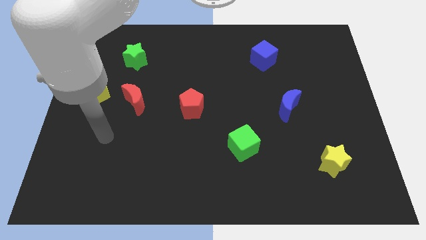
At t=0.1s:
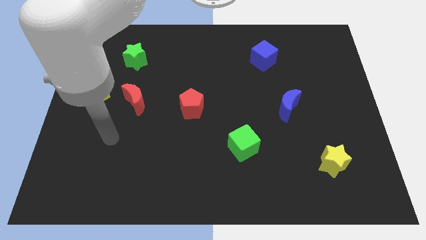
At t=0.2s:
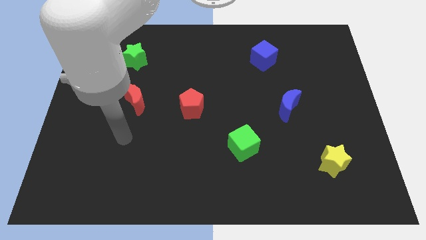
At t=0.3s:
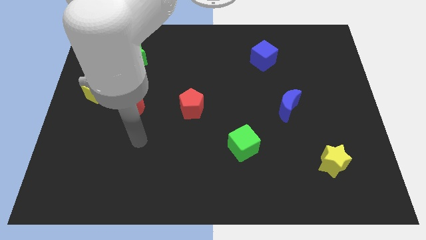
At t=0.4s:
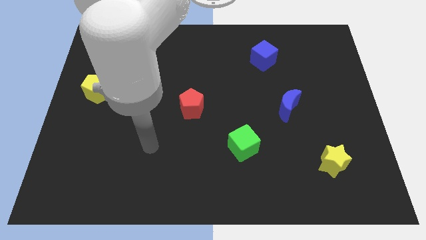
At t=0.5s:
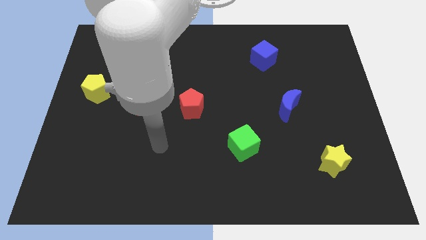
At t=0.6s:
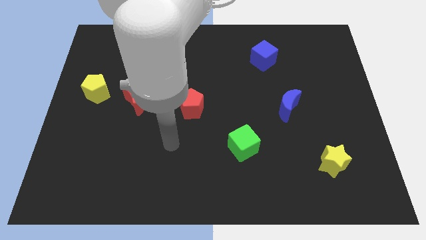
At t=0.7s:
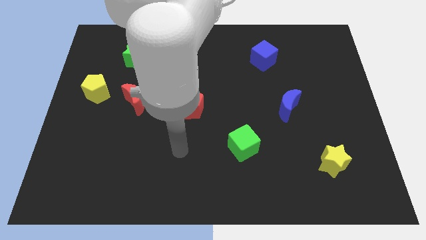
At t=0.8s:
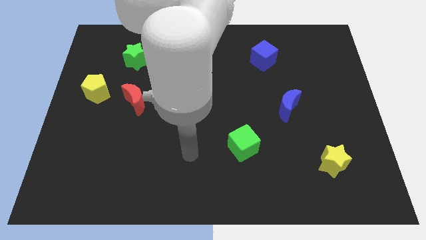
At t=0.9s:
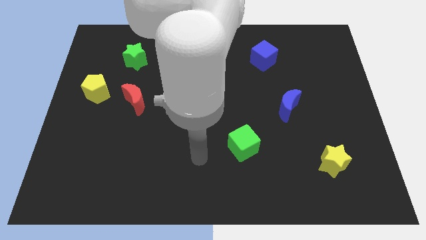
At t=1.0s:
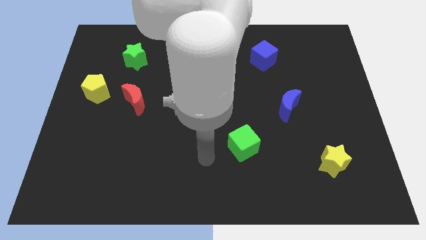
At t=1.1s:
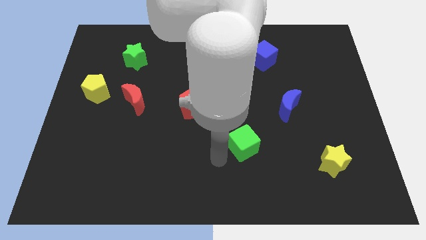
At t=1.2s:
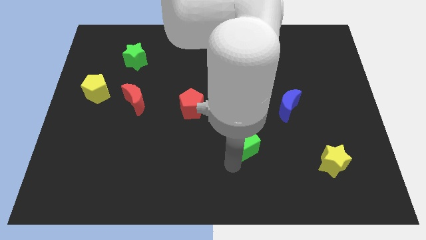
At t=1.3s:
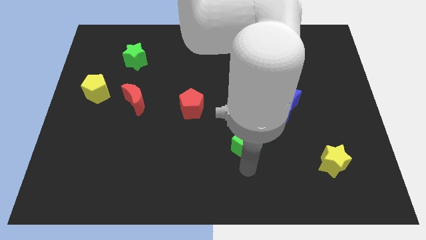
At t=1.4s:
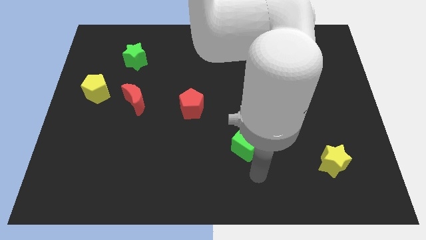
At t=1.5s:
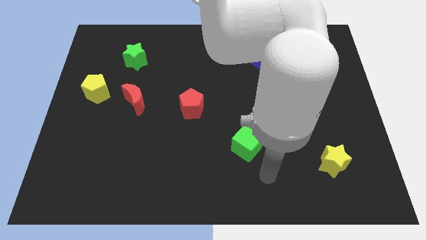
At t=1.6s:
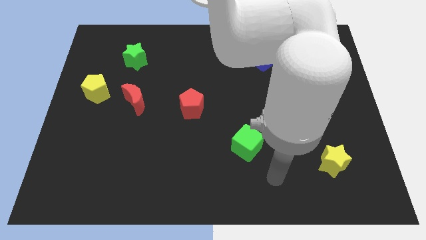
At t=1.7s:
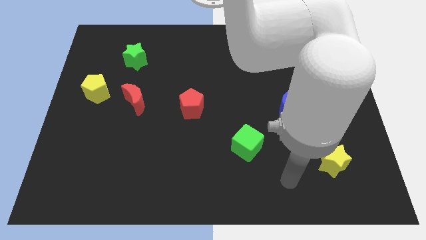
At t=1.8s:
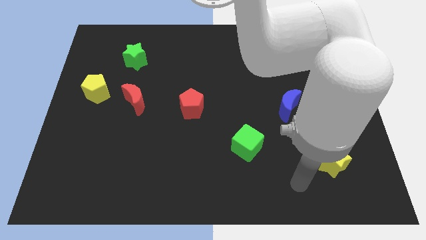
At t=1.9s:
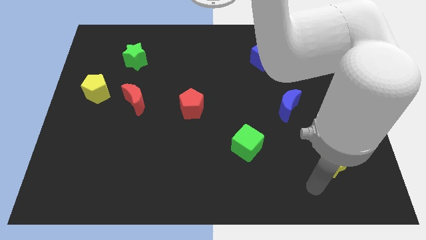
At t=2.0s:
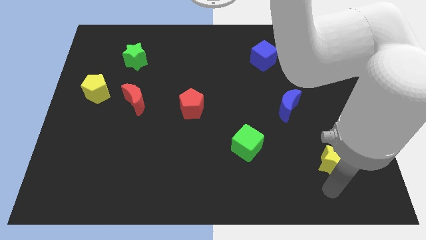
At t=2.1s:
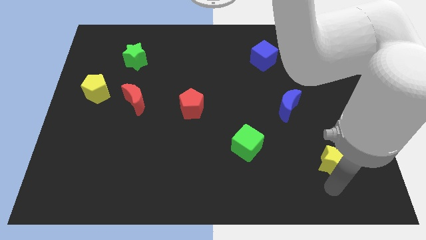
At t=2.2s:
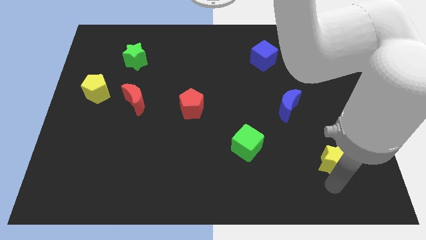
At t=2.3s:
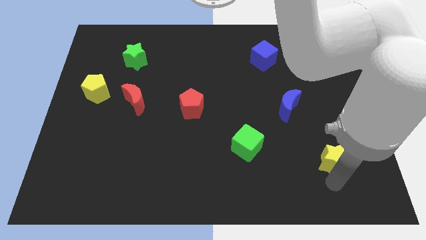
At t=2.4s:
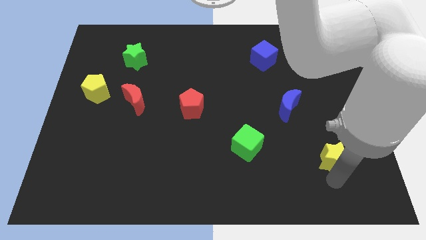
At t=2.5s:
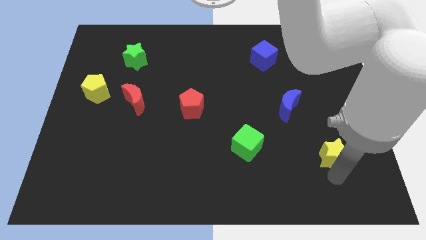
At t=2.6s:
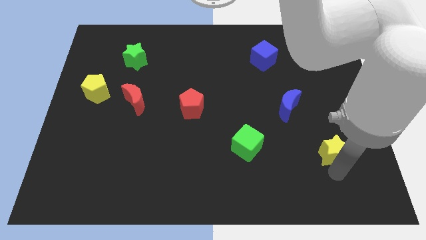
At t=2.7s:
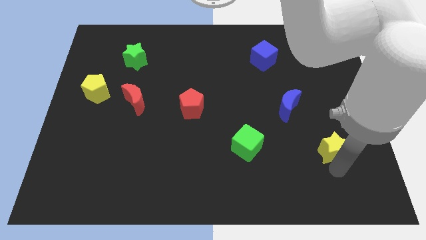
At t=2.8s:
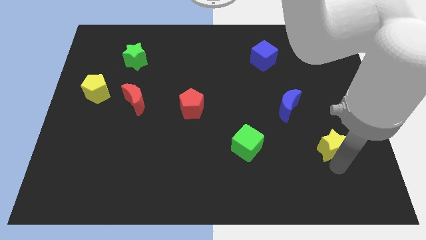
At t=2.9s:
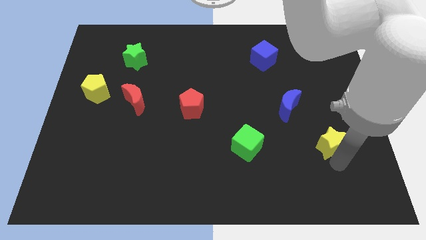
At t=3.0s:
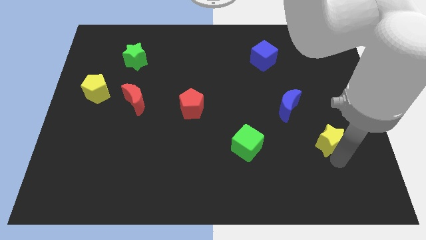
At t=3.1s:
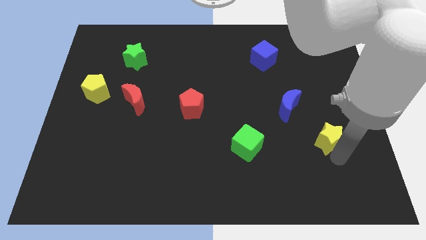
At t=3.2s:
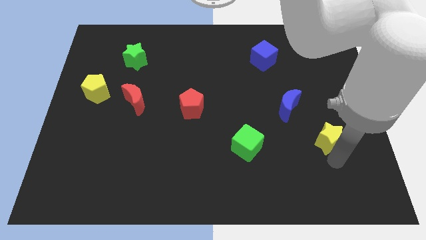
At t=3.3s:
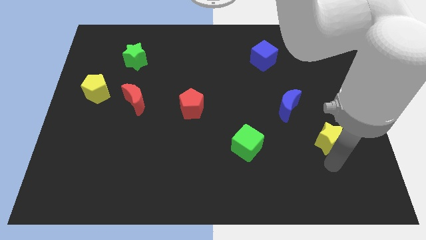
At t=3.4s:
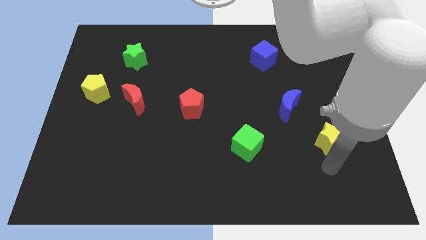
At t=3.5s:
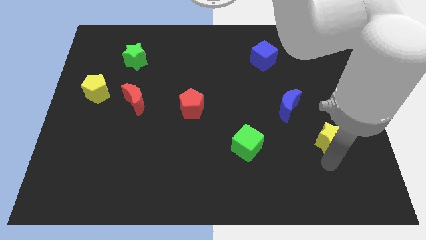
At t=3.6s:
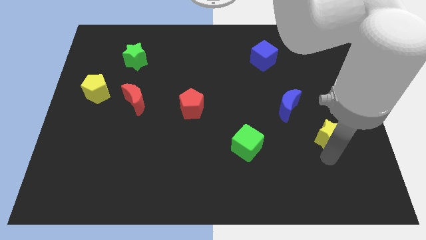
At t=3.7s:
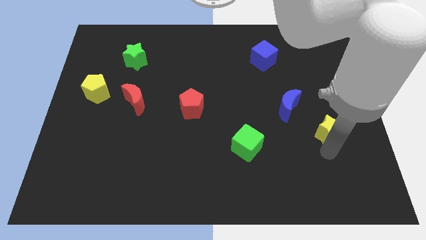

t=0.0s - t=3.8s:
slide the yellow star a bit upwards

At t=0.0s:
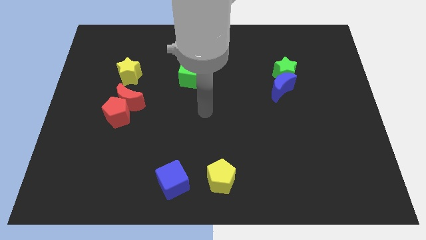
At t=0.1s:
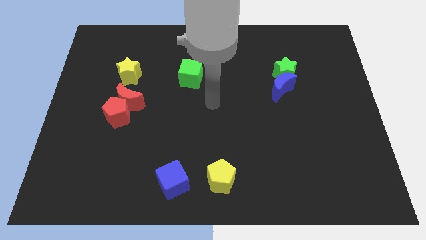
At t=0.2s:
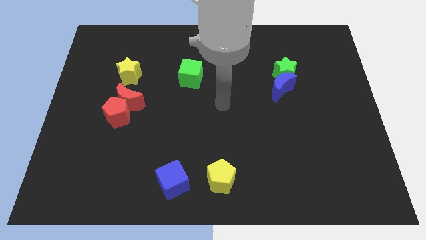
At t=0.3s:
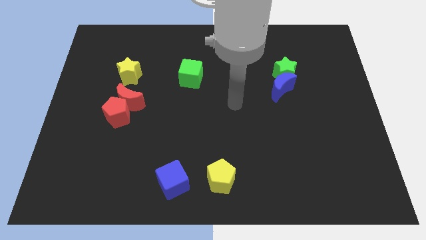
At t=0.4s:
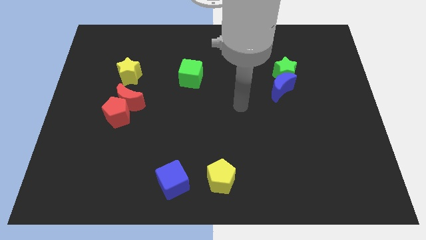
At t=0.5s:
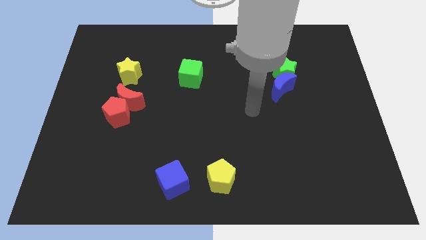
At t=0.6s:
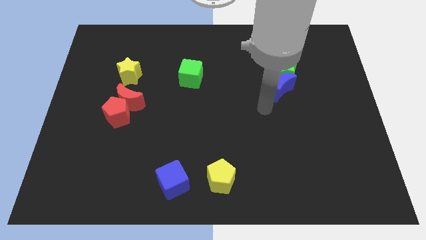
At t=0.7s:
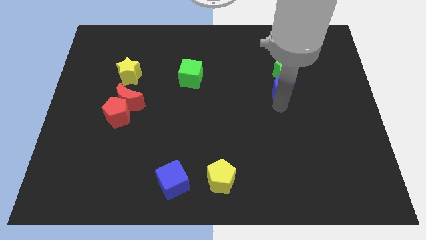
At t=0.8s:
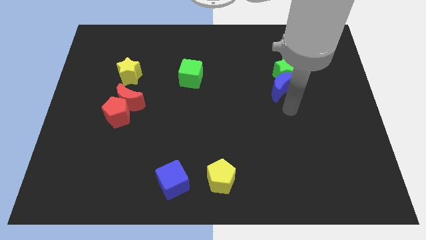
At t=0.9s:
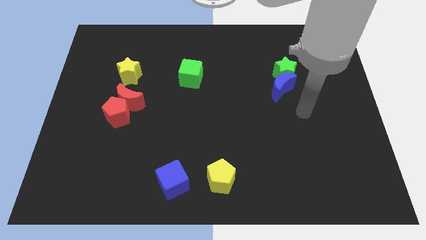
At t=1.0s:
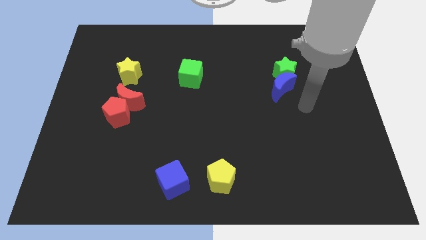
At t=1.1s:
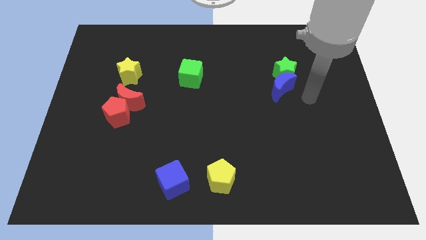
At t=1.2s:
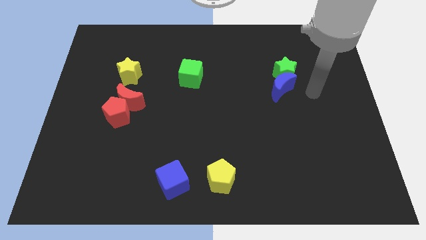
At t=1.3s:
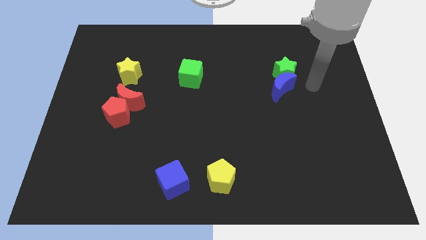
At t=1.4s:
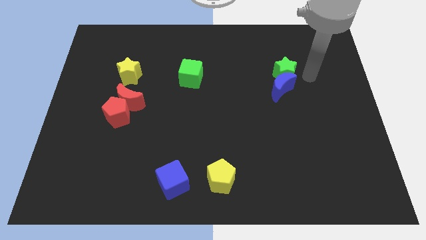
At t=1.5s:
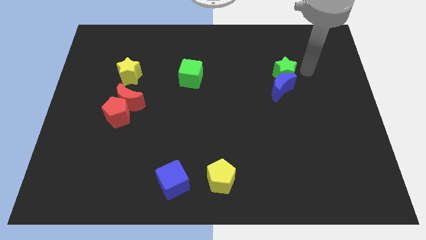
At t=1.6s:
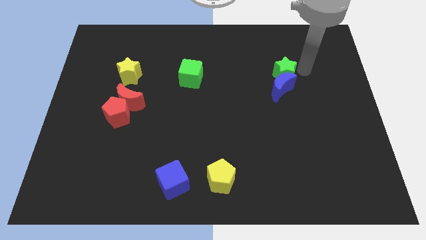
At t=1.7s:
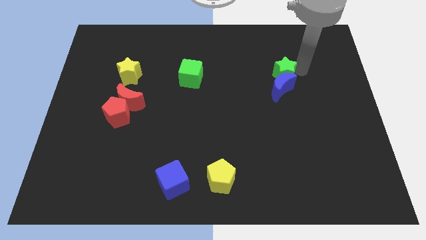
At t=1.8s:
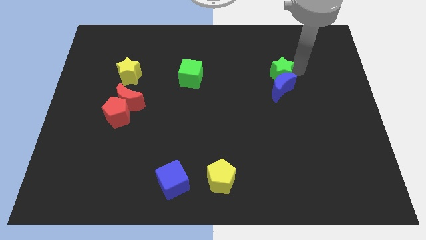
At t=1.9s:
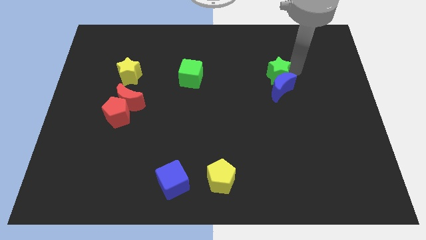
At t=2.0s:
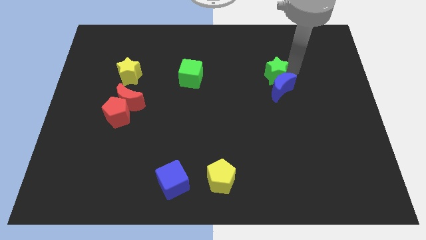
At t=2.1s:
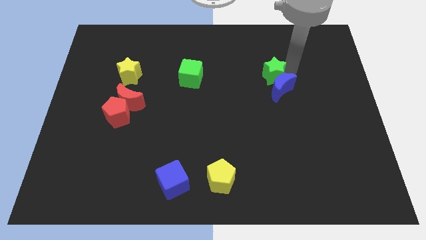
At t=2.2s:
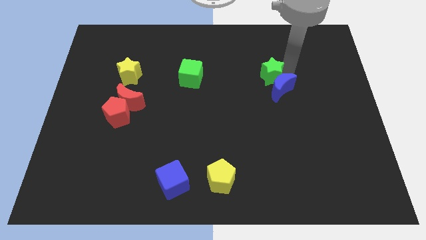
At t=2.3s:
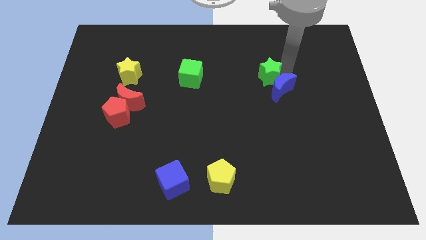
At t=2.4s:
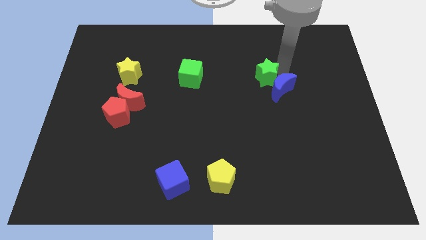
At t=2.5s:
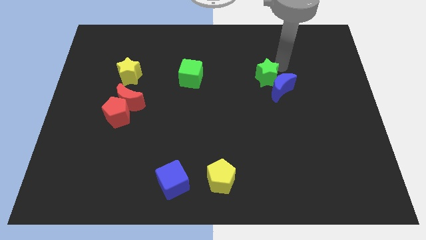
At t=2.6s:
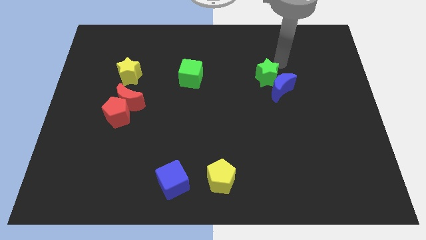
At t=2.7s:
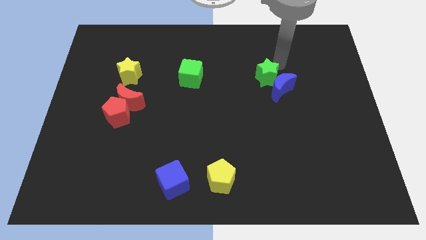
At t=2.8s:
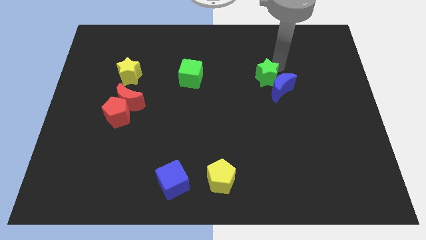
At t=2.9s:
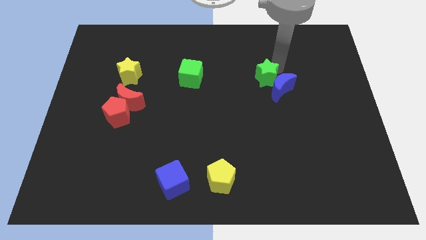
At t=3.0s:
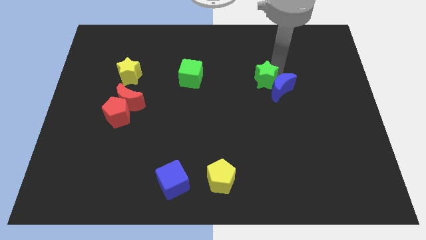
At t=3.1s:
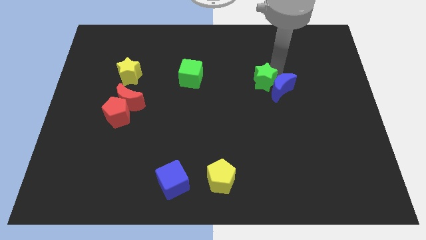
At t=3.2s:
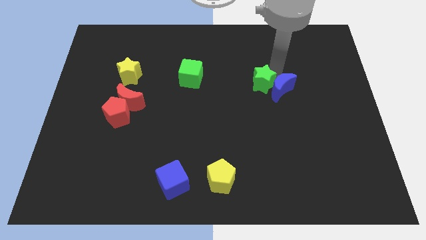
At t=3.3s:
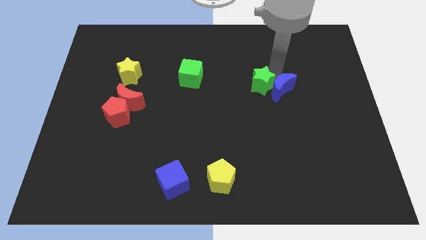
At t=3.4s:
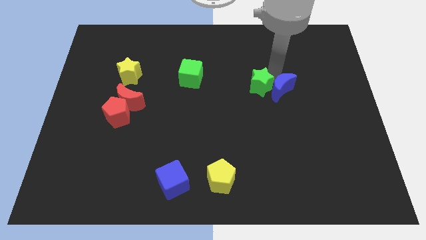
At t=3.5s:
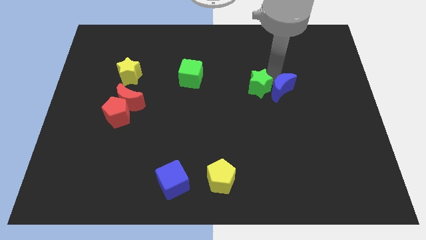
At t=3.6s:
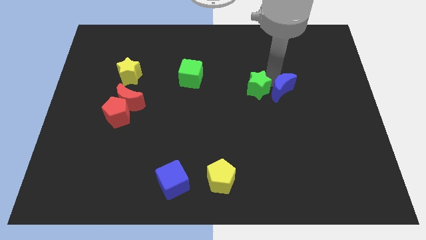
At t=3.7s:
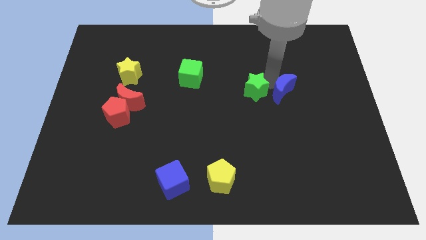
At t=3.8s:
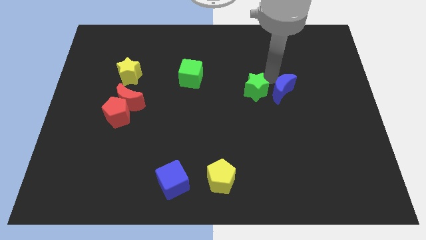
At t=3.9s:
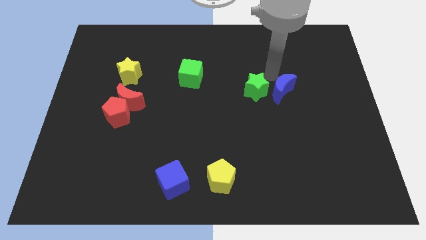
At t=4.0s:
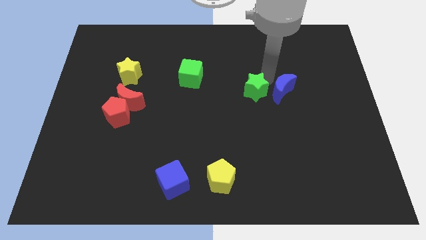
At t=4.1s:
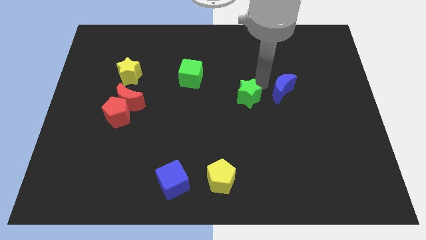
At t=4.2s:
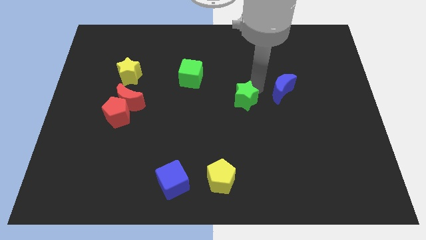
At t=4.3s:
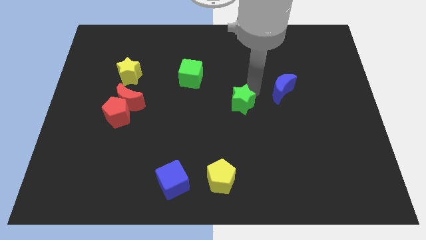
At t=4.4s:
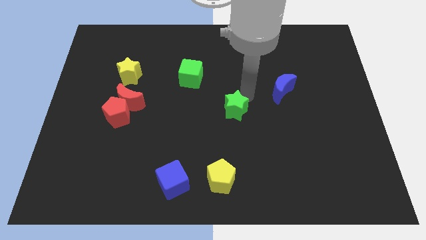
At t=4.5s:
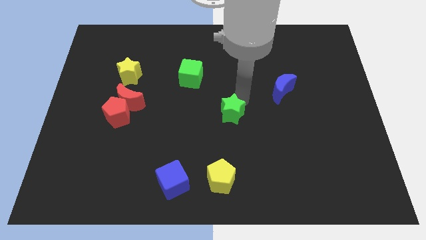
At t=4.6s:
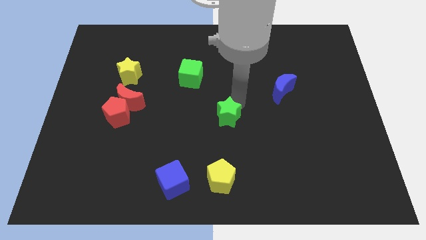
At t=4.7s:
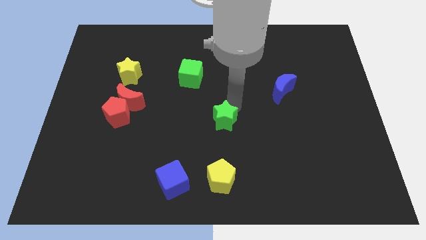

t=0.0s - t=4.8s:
slide the green star downwards and left diagonally
